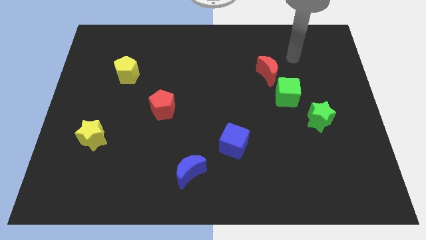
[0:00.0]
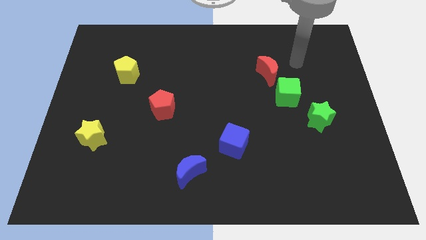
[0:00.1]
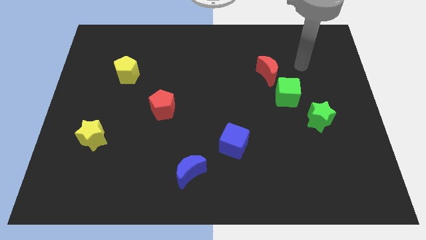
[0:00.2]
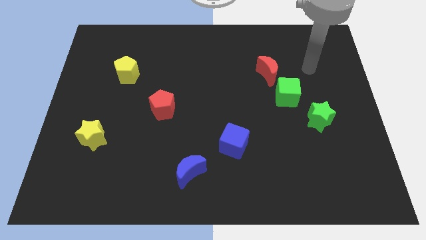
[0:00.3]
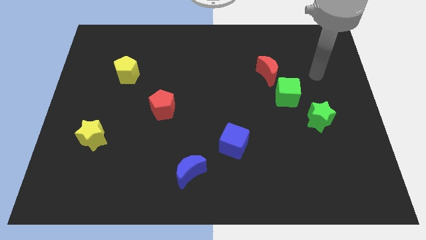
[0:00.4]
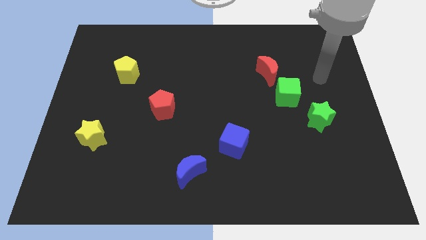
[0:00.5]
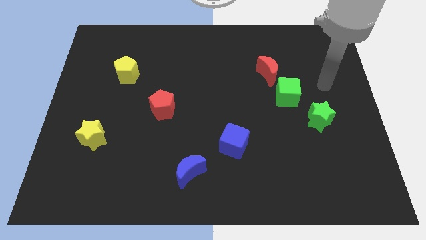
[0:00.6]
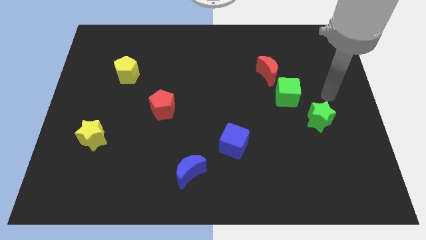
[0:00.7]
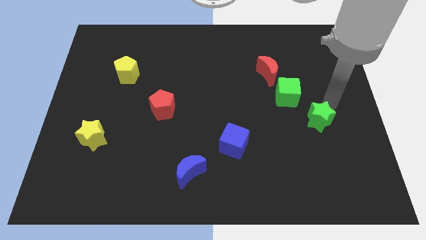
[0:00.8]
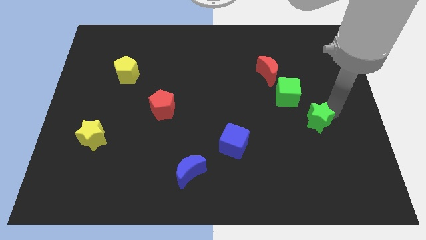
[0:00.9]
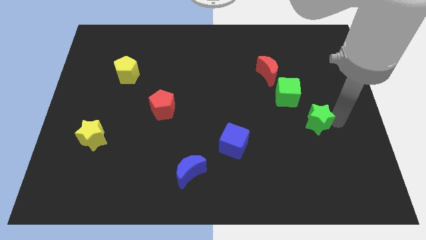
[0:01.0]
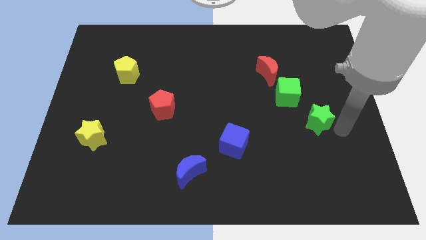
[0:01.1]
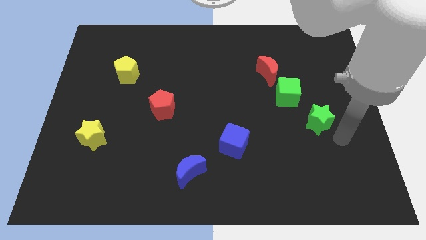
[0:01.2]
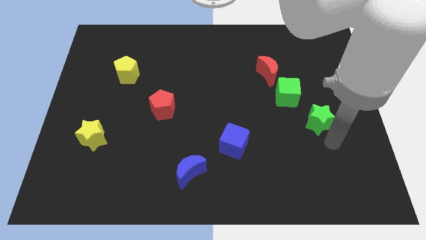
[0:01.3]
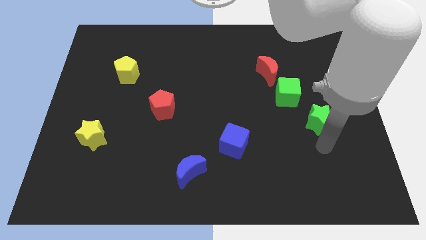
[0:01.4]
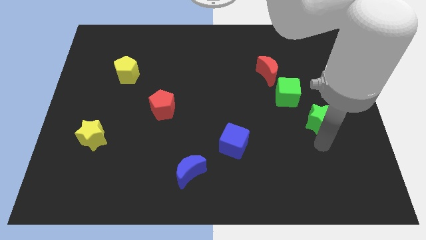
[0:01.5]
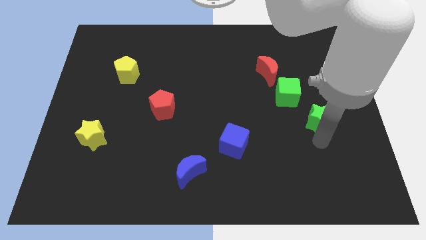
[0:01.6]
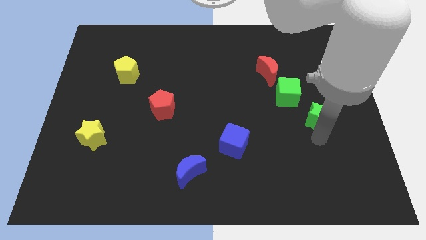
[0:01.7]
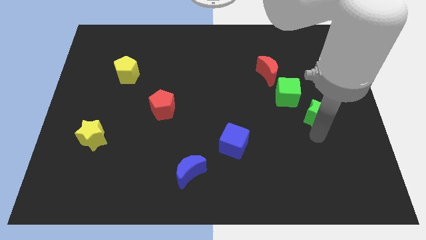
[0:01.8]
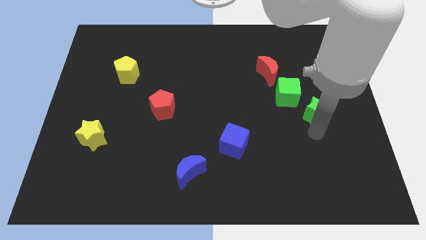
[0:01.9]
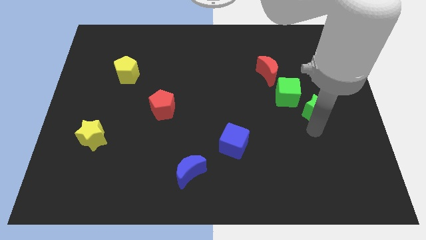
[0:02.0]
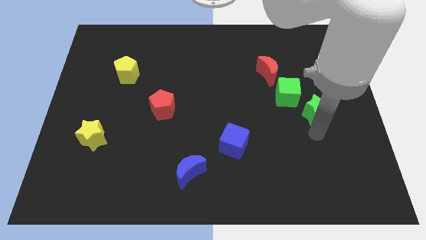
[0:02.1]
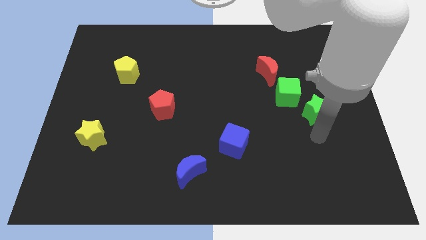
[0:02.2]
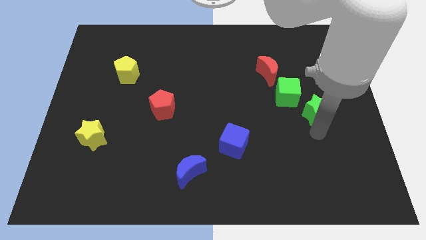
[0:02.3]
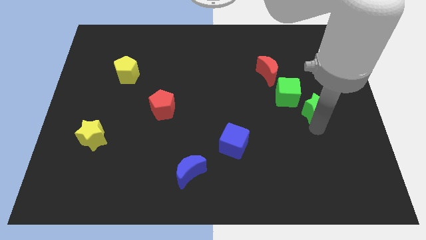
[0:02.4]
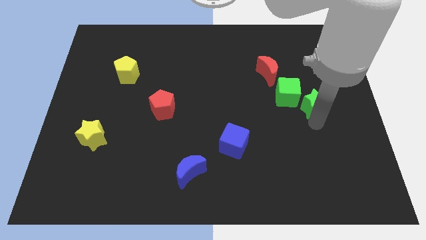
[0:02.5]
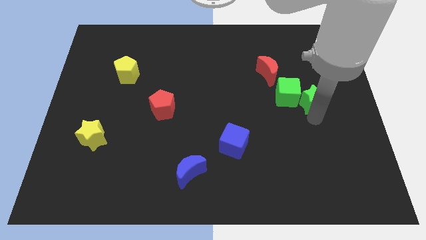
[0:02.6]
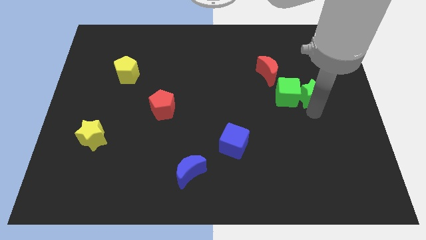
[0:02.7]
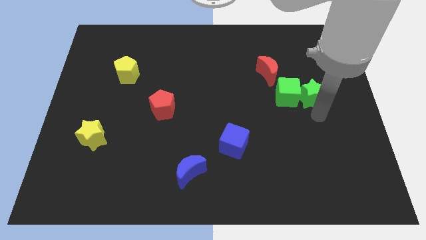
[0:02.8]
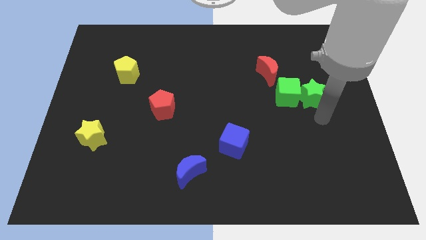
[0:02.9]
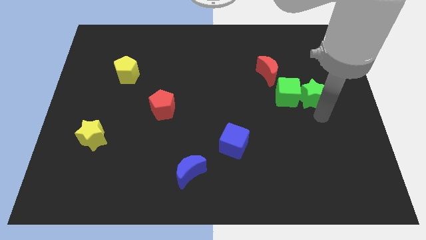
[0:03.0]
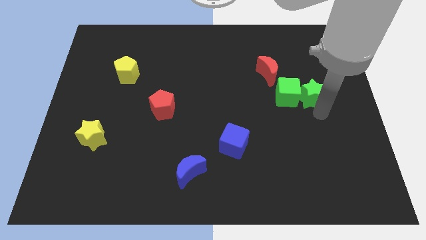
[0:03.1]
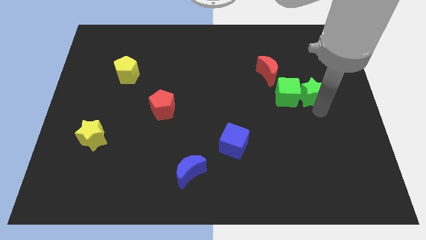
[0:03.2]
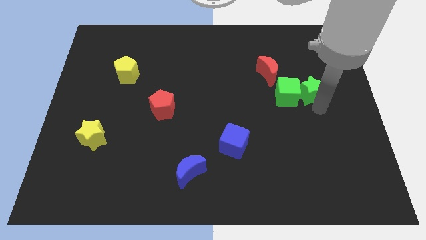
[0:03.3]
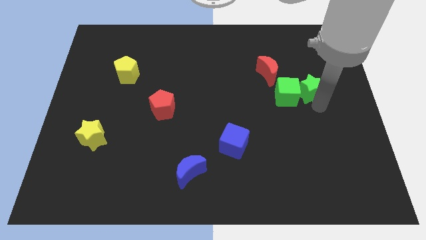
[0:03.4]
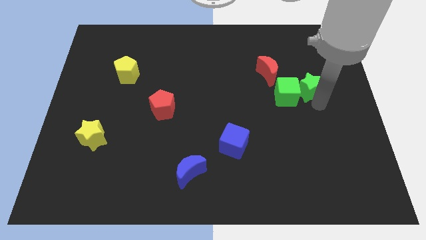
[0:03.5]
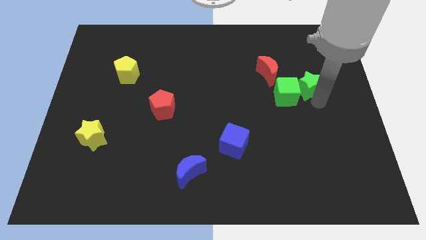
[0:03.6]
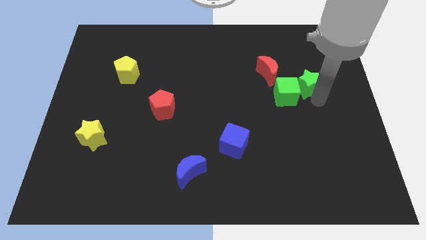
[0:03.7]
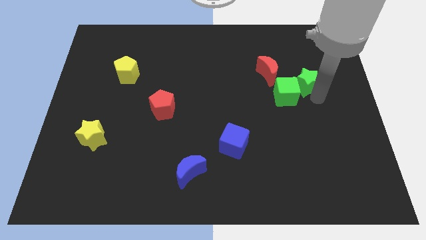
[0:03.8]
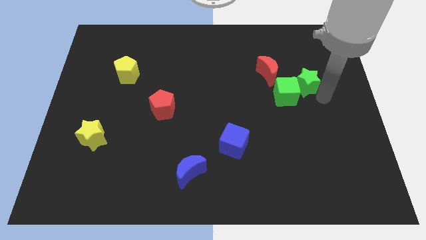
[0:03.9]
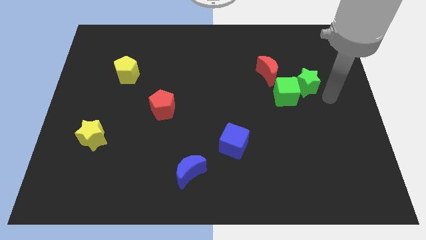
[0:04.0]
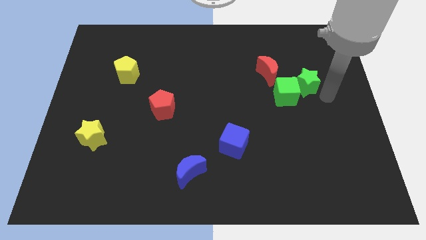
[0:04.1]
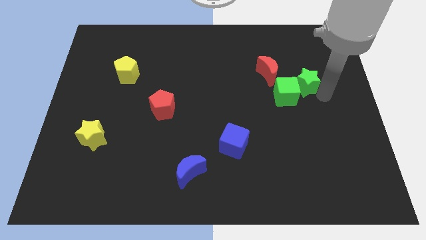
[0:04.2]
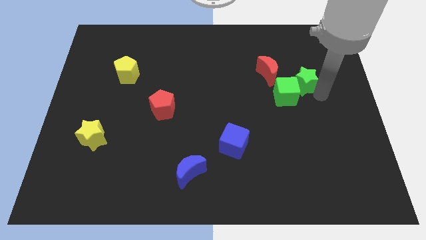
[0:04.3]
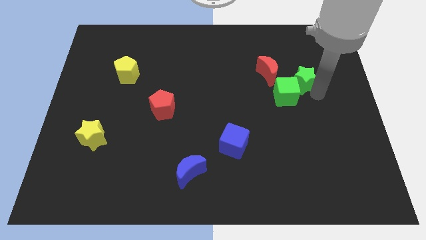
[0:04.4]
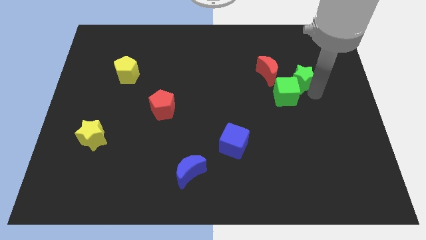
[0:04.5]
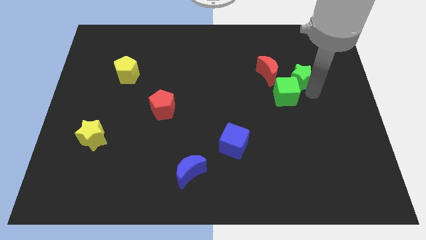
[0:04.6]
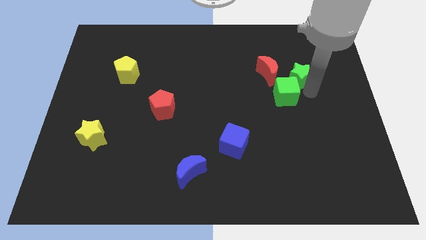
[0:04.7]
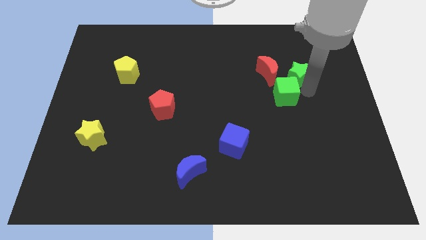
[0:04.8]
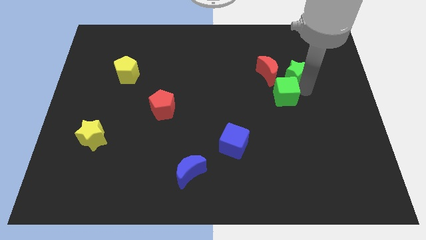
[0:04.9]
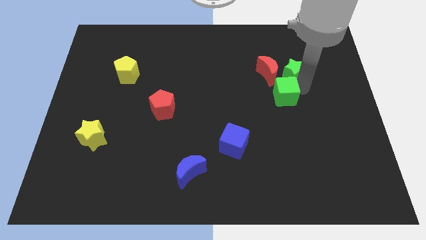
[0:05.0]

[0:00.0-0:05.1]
move the green star to the red moon

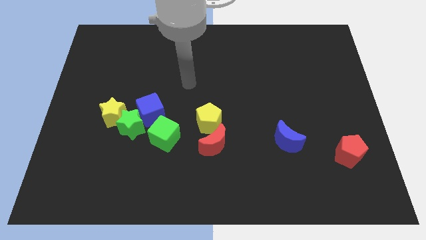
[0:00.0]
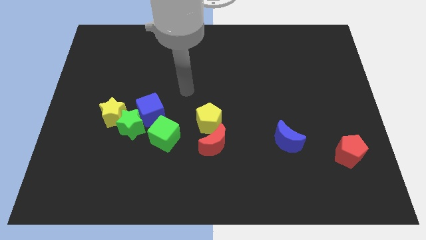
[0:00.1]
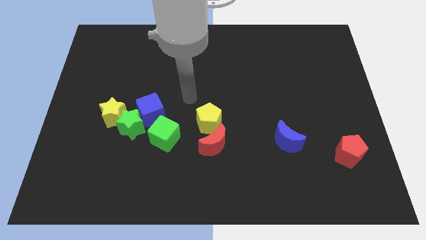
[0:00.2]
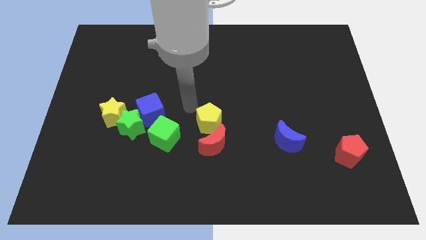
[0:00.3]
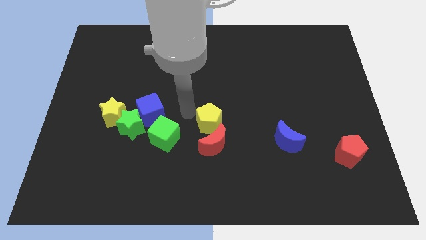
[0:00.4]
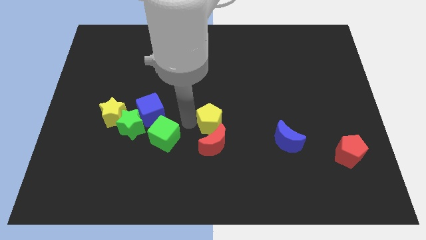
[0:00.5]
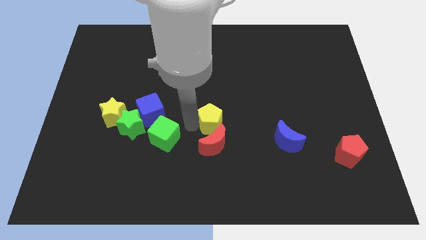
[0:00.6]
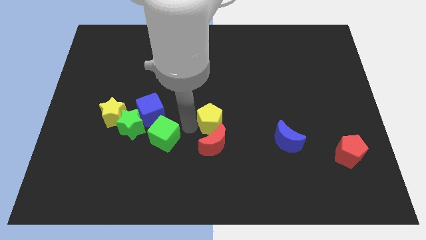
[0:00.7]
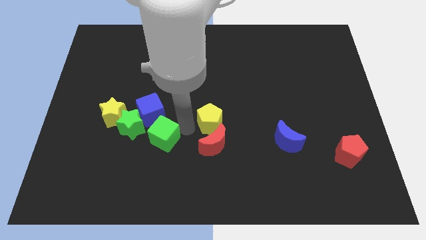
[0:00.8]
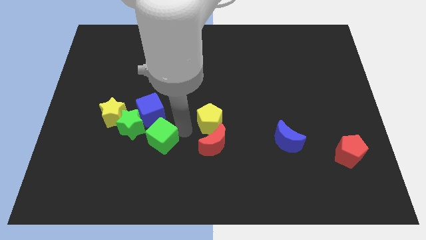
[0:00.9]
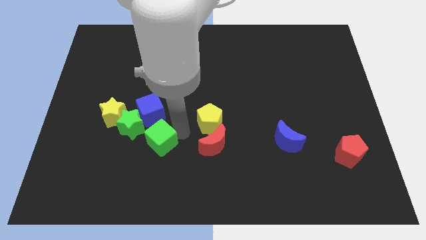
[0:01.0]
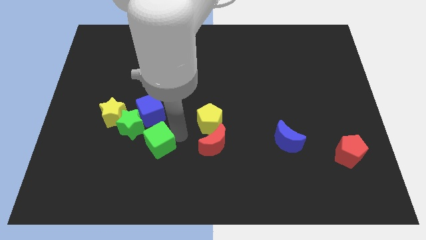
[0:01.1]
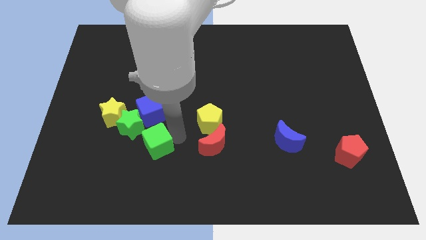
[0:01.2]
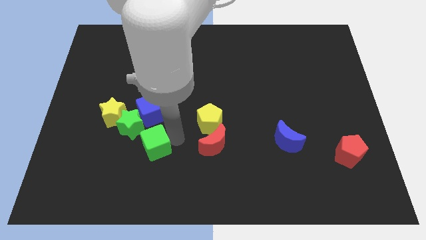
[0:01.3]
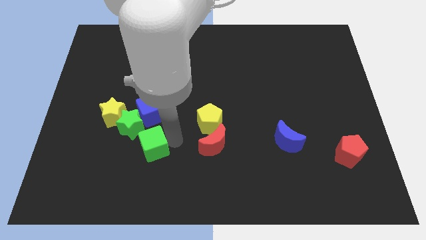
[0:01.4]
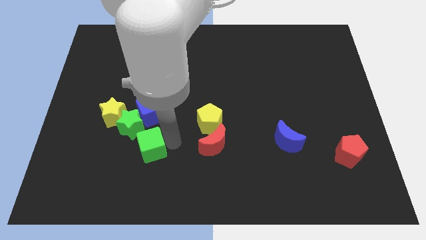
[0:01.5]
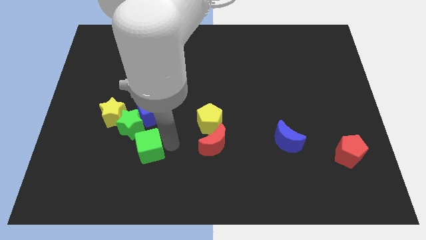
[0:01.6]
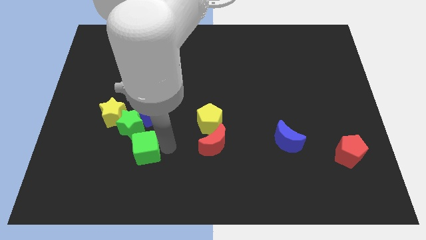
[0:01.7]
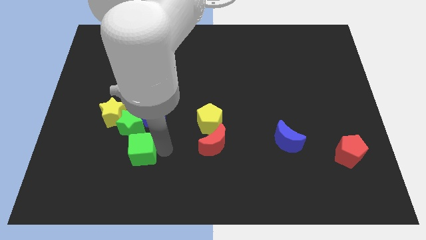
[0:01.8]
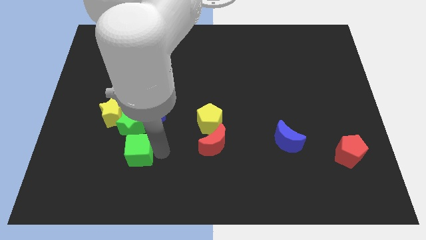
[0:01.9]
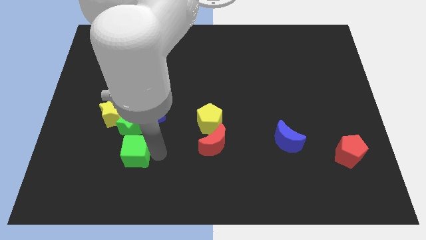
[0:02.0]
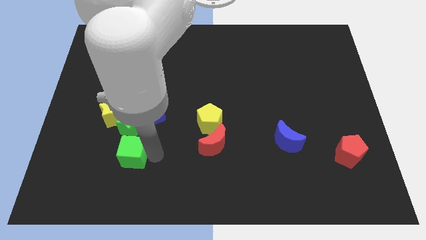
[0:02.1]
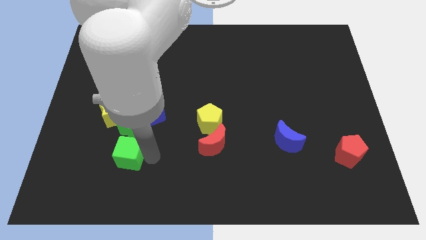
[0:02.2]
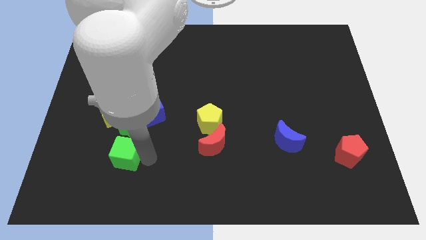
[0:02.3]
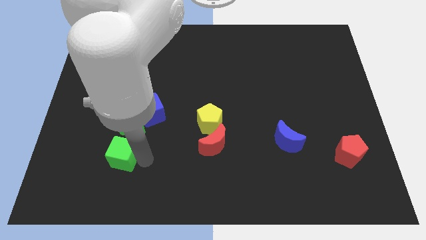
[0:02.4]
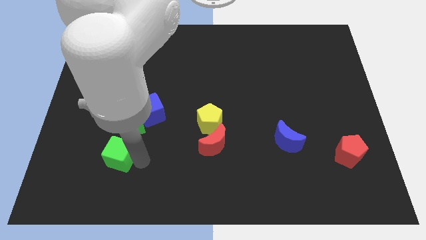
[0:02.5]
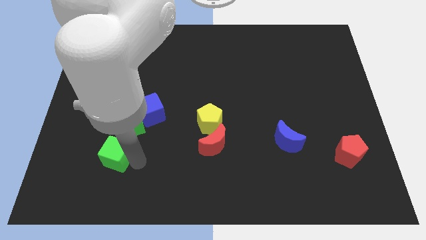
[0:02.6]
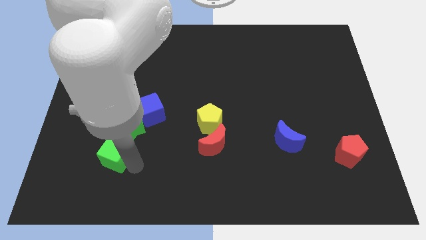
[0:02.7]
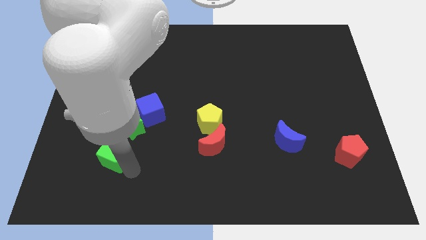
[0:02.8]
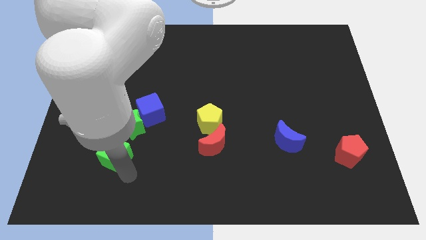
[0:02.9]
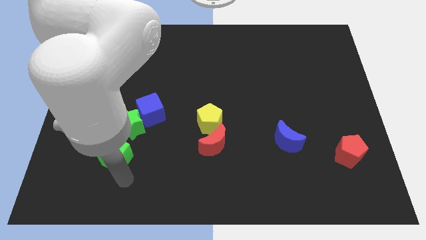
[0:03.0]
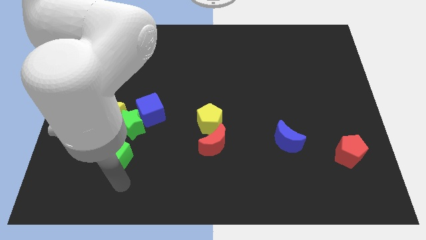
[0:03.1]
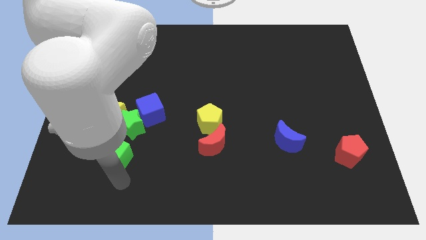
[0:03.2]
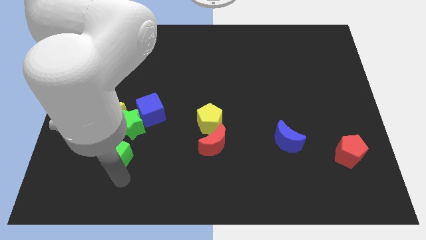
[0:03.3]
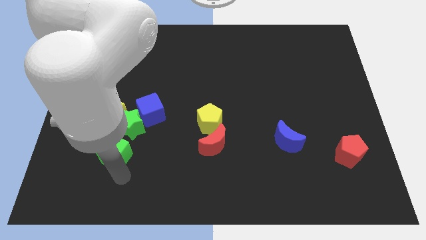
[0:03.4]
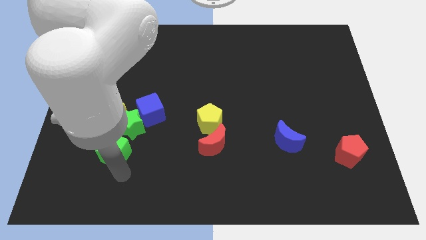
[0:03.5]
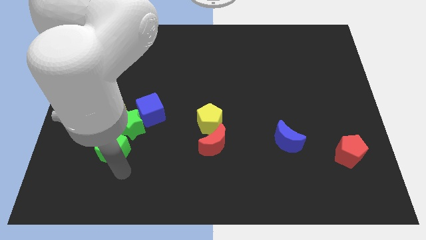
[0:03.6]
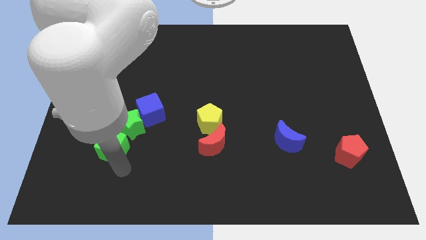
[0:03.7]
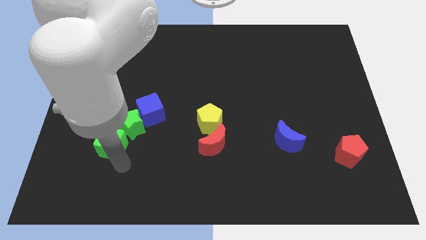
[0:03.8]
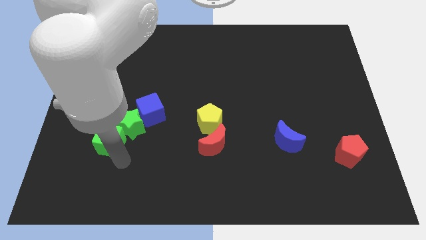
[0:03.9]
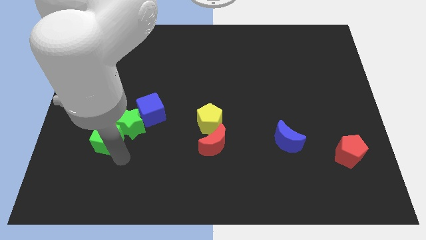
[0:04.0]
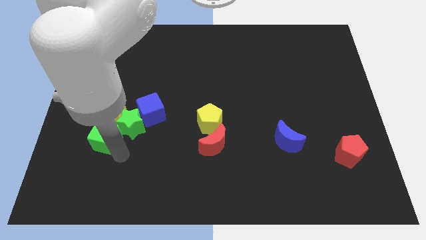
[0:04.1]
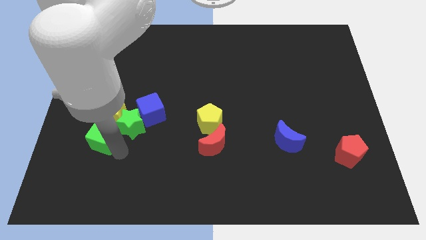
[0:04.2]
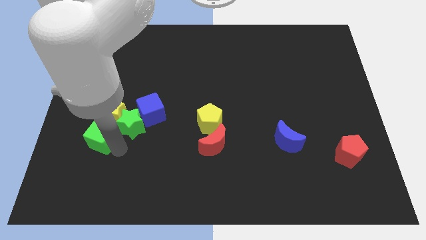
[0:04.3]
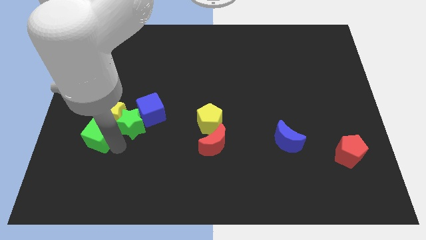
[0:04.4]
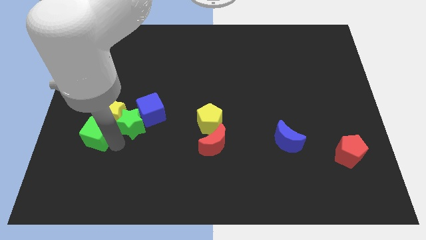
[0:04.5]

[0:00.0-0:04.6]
slide the green cube towards the yellow star
